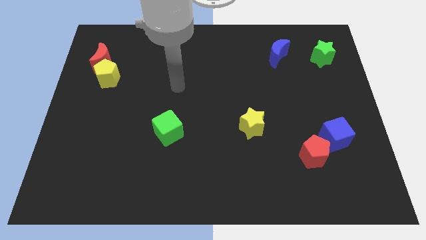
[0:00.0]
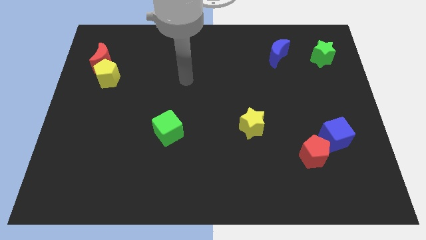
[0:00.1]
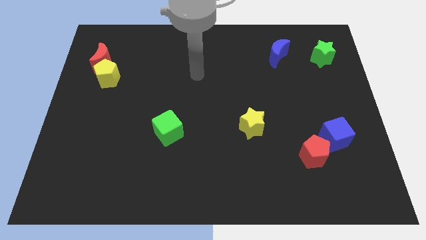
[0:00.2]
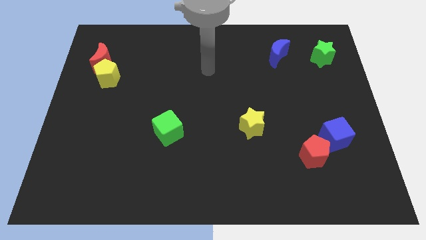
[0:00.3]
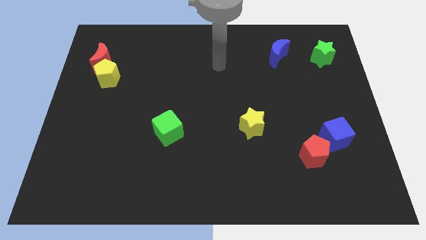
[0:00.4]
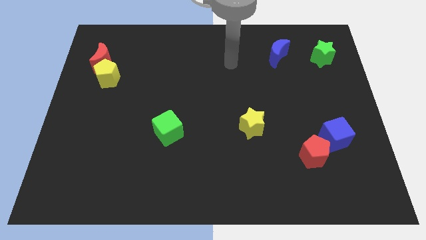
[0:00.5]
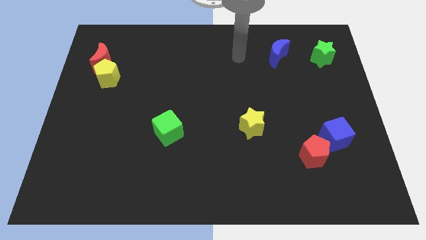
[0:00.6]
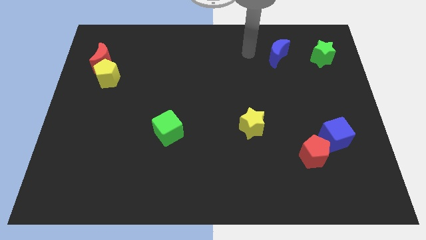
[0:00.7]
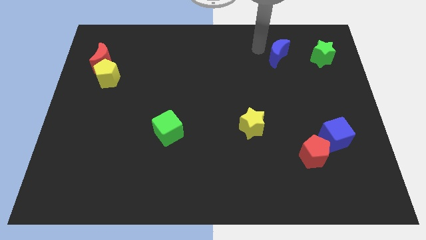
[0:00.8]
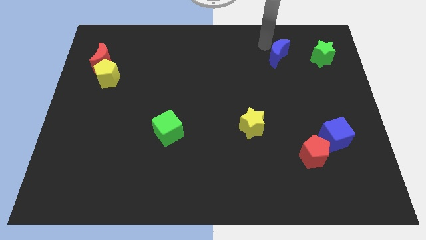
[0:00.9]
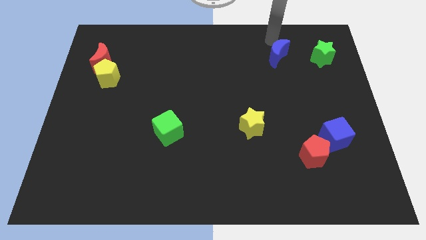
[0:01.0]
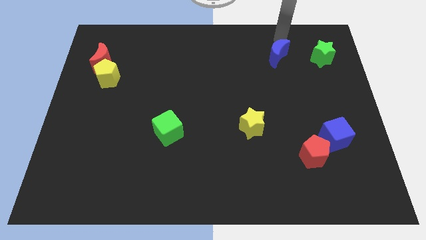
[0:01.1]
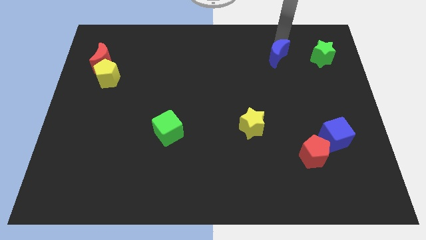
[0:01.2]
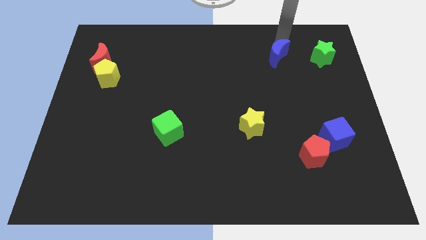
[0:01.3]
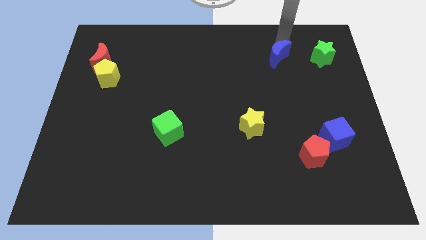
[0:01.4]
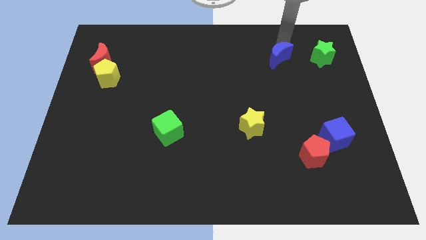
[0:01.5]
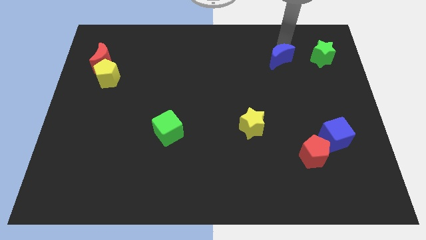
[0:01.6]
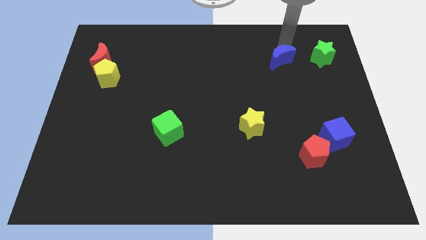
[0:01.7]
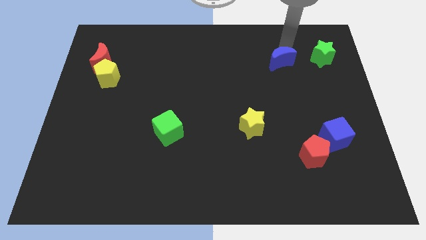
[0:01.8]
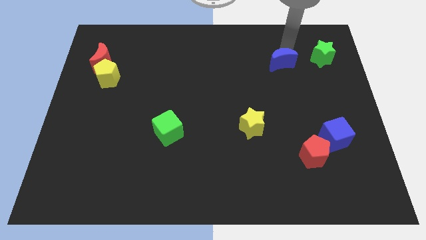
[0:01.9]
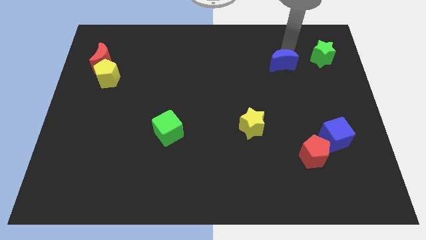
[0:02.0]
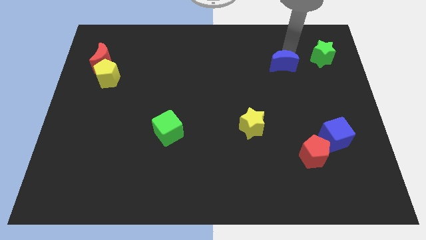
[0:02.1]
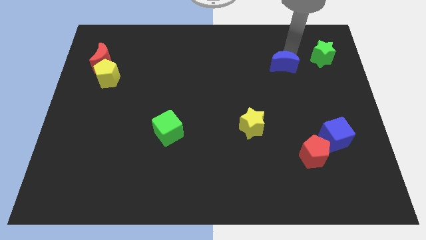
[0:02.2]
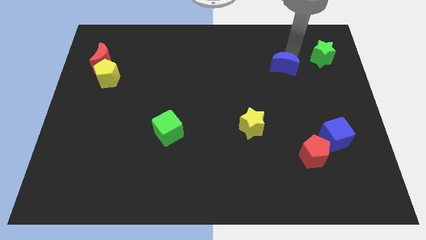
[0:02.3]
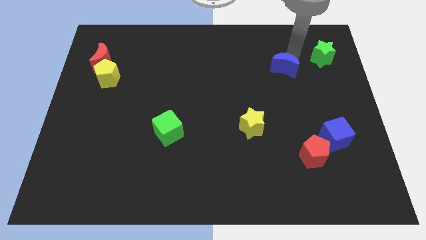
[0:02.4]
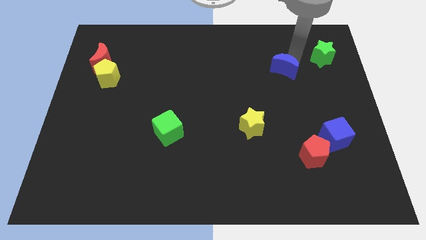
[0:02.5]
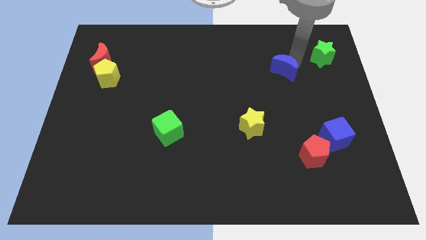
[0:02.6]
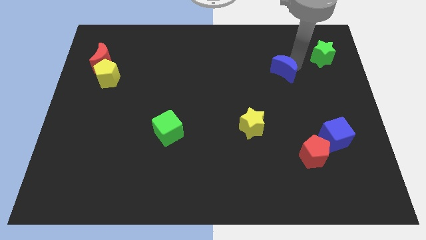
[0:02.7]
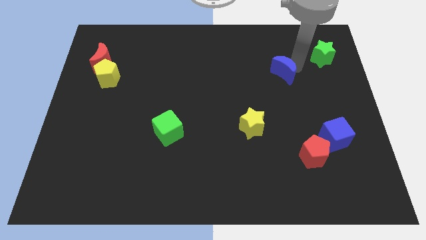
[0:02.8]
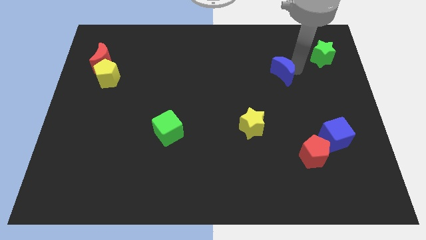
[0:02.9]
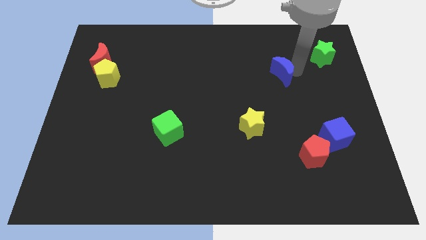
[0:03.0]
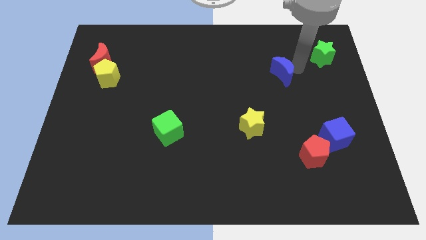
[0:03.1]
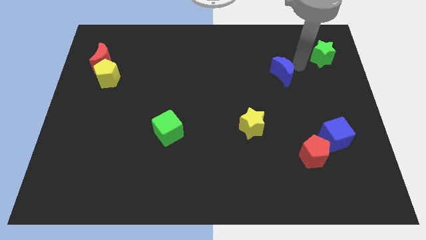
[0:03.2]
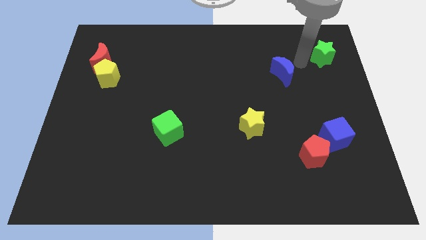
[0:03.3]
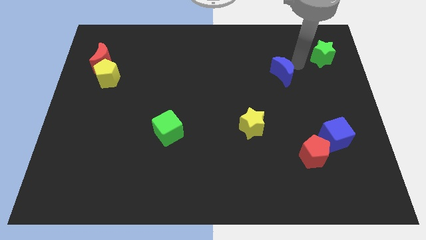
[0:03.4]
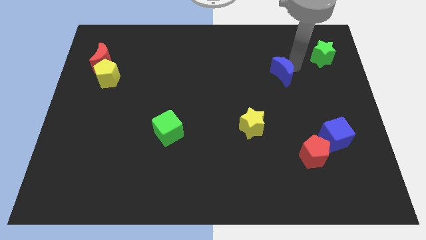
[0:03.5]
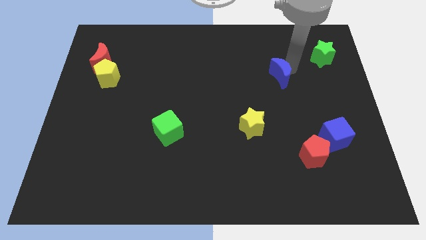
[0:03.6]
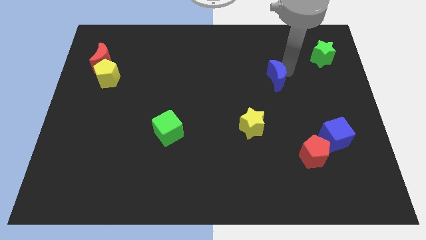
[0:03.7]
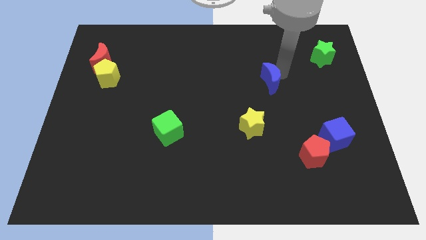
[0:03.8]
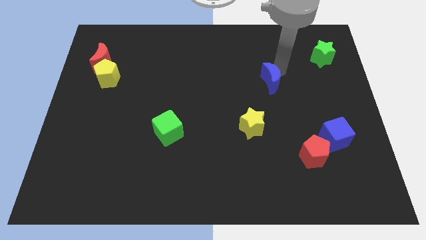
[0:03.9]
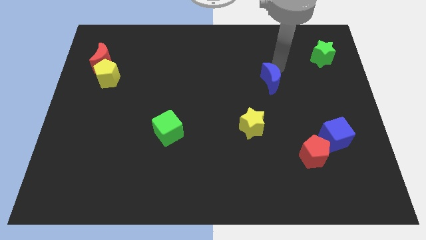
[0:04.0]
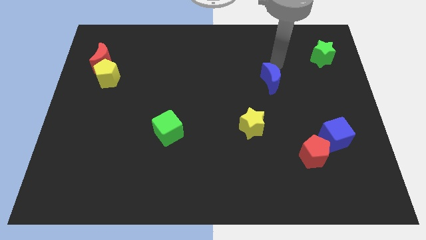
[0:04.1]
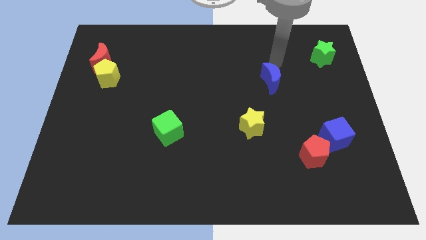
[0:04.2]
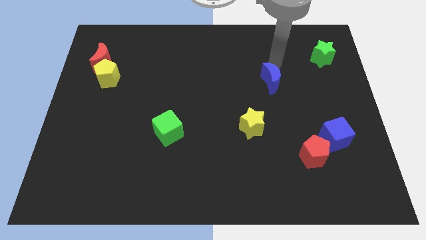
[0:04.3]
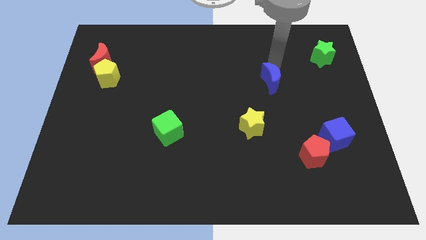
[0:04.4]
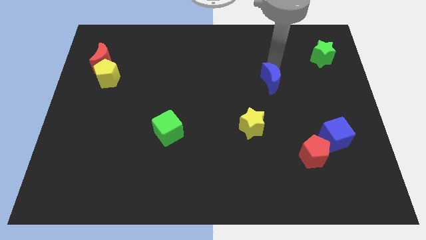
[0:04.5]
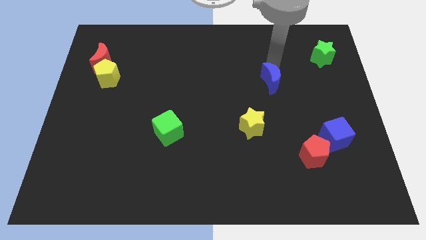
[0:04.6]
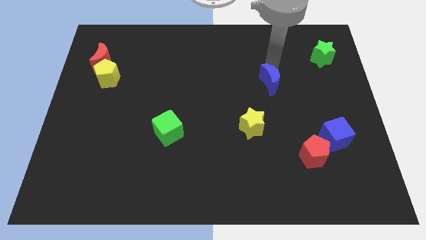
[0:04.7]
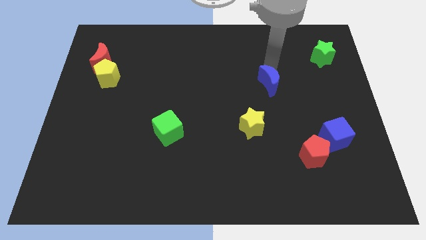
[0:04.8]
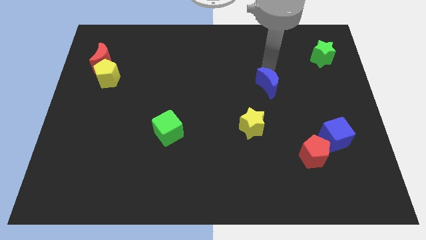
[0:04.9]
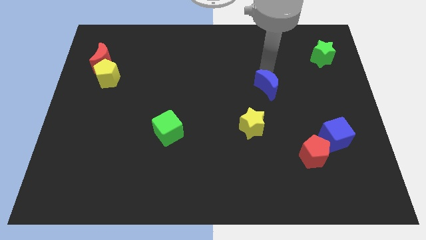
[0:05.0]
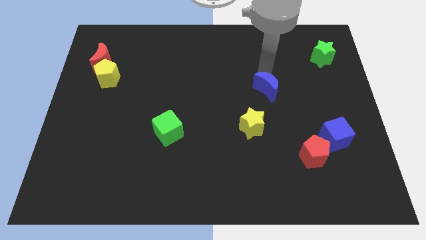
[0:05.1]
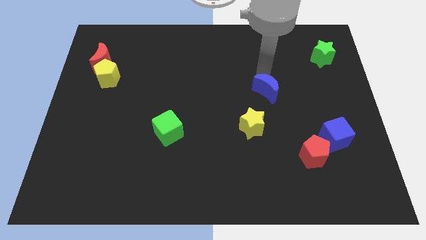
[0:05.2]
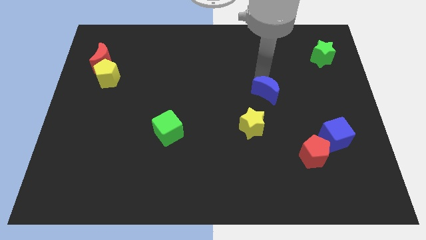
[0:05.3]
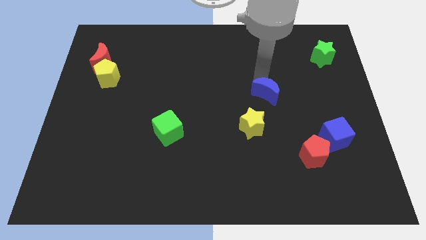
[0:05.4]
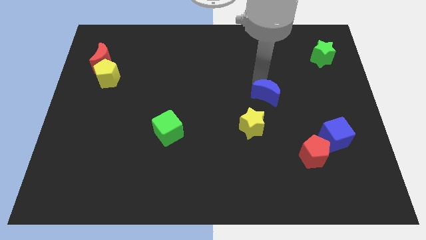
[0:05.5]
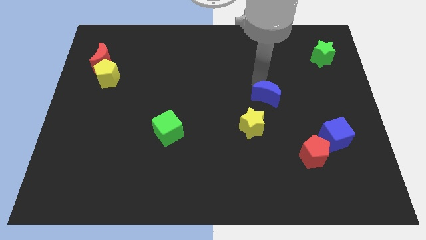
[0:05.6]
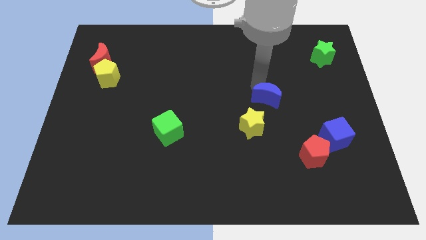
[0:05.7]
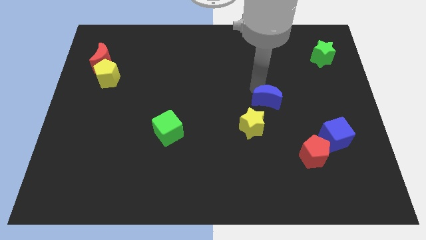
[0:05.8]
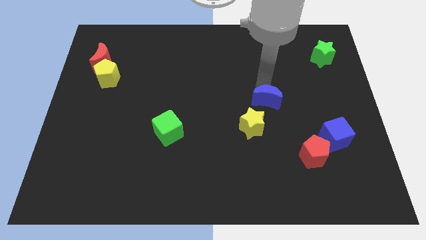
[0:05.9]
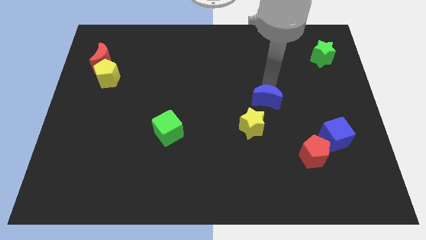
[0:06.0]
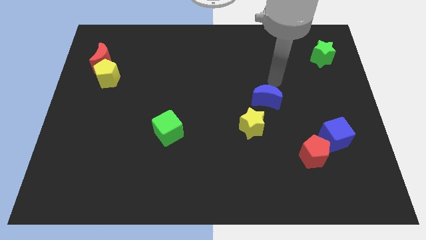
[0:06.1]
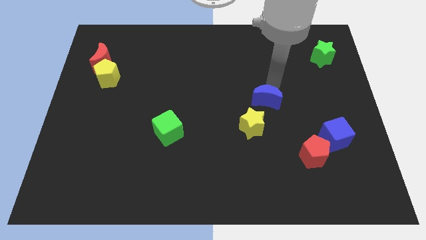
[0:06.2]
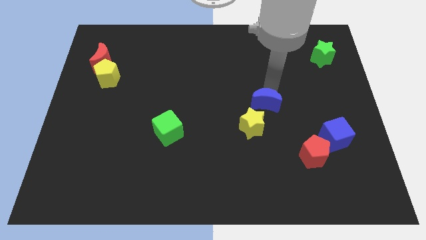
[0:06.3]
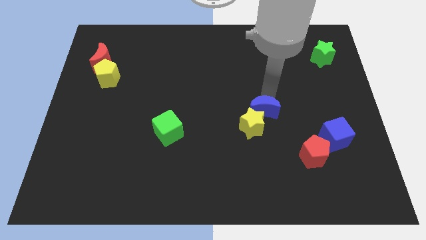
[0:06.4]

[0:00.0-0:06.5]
move the blue moon close to the yellow star
